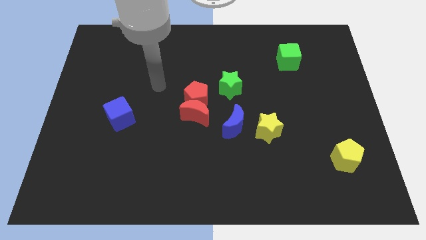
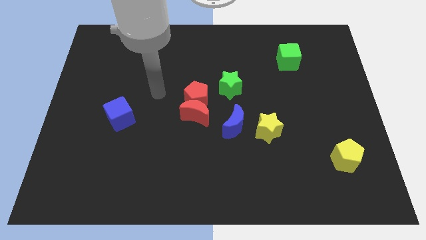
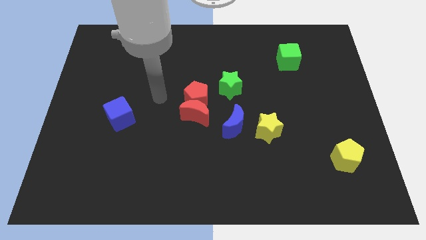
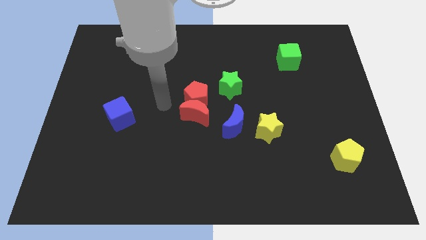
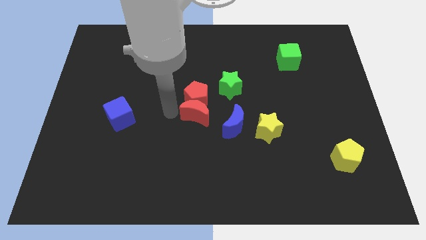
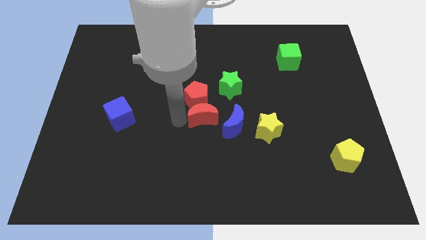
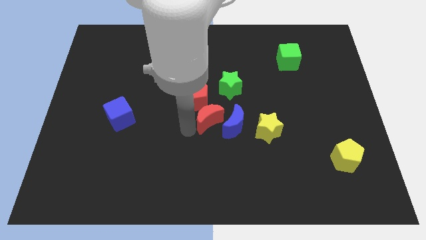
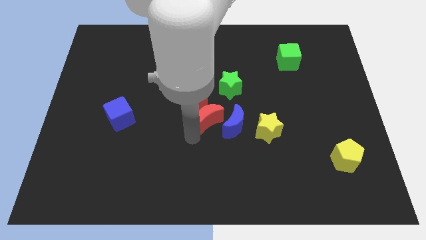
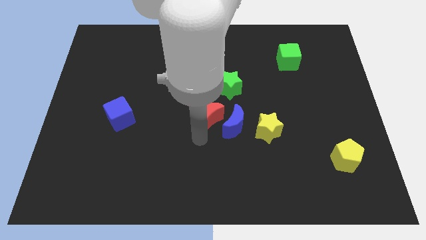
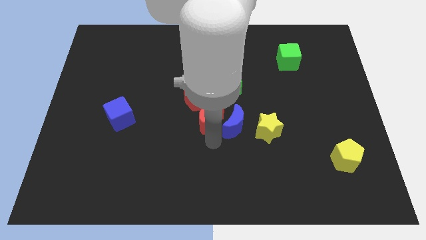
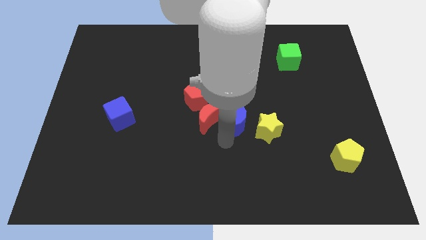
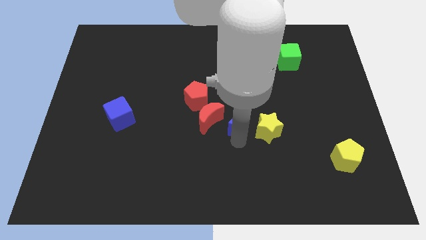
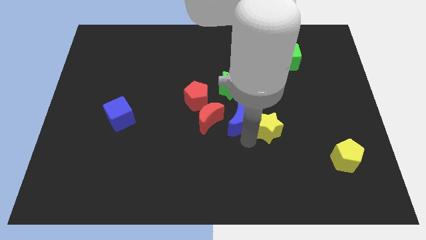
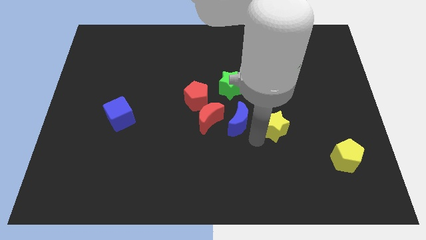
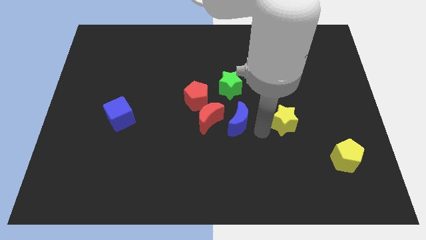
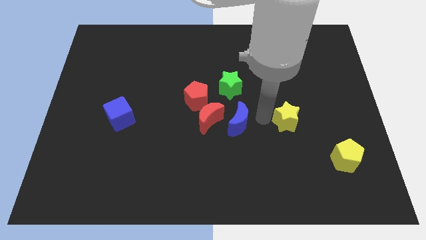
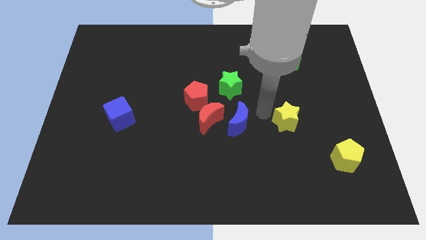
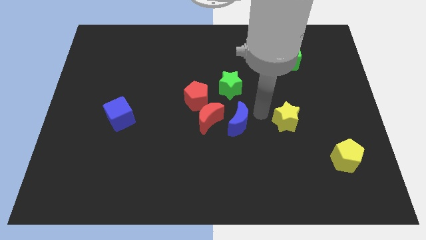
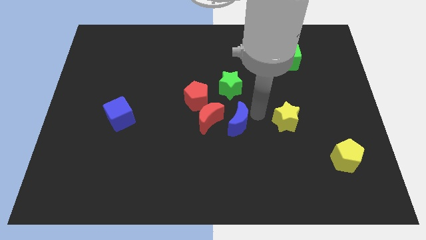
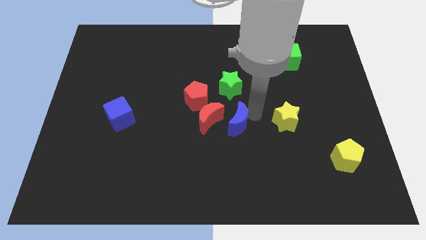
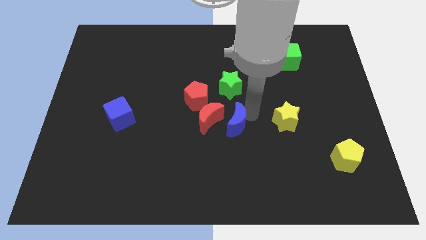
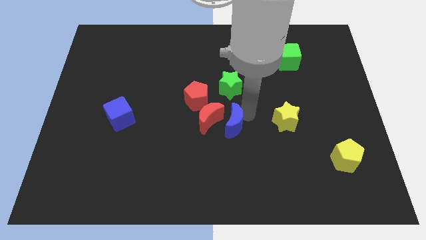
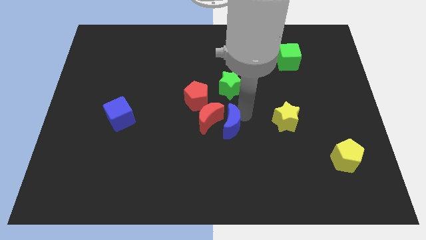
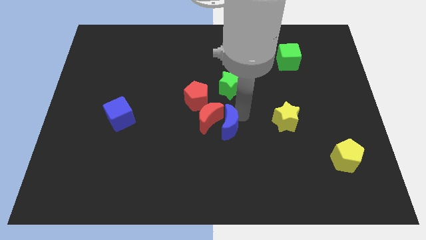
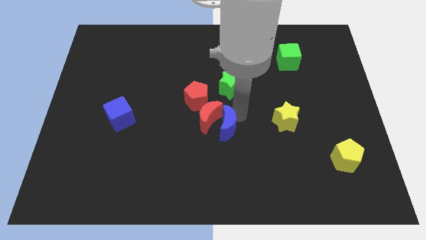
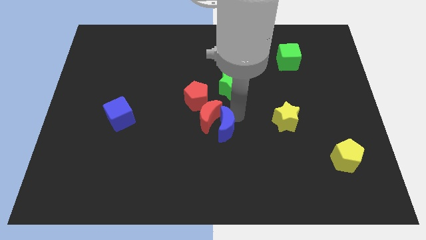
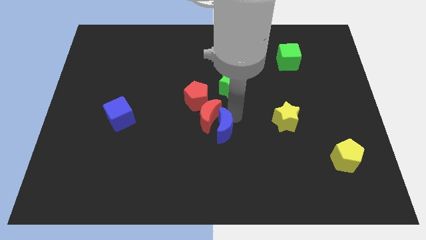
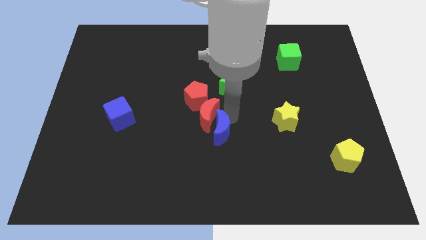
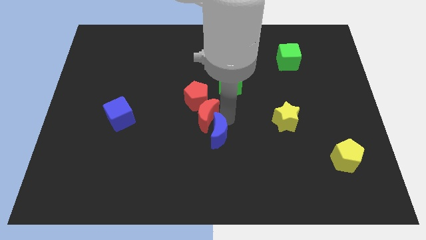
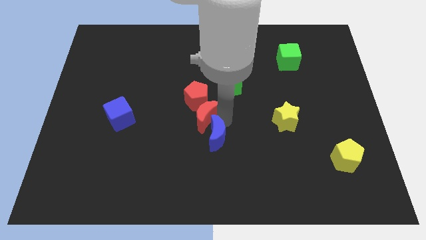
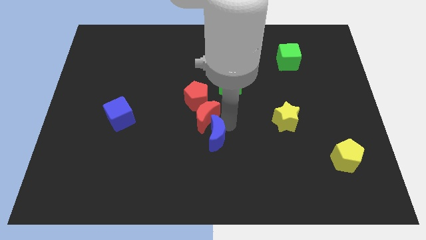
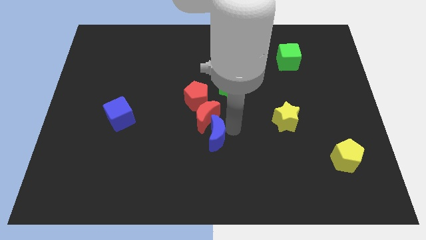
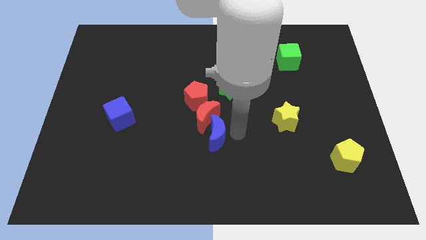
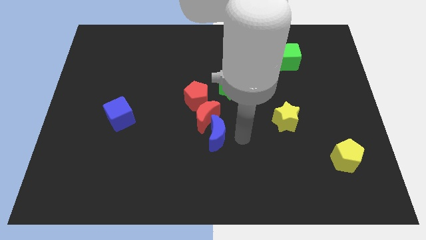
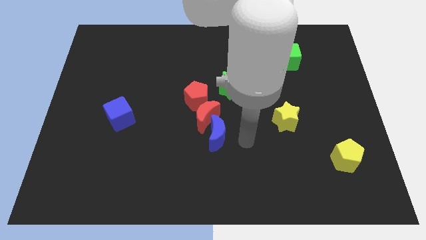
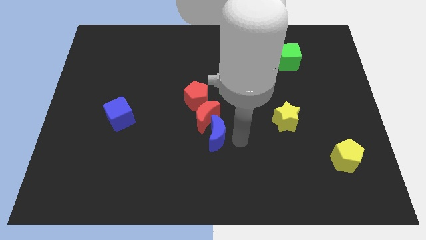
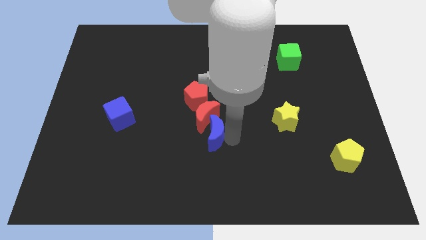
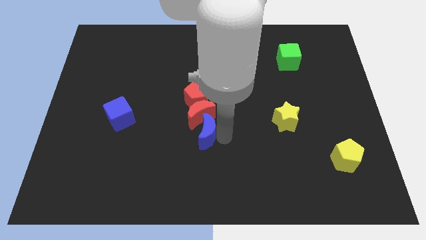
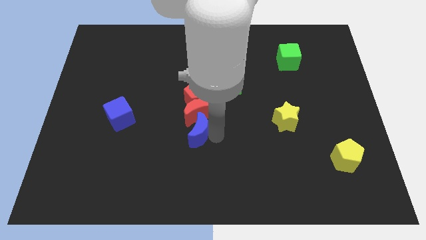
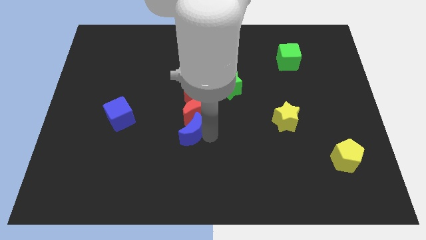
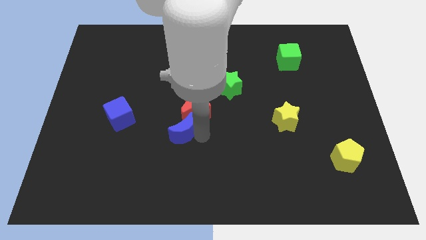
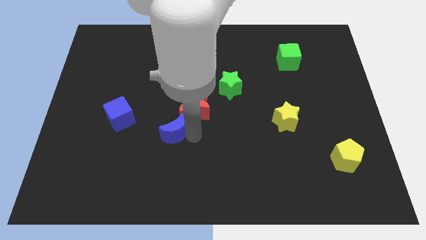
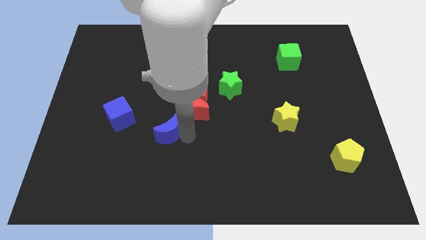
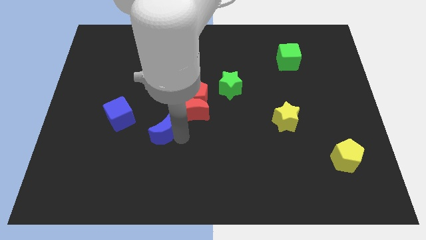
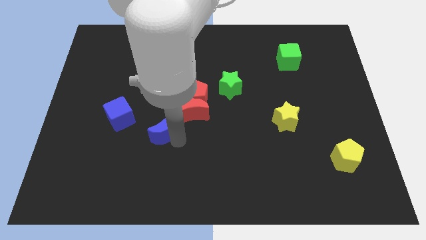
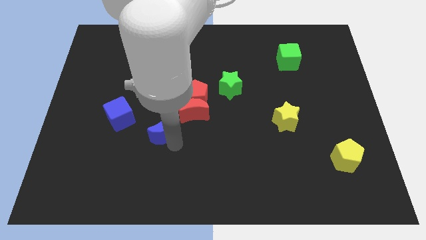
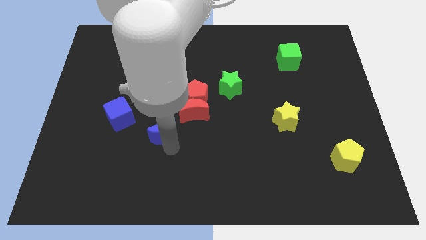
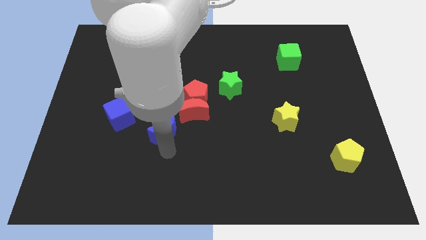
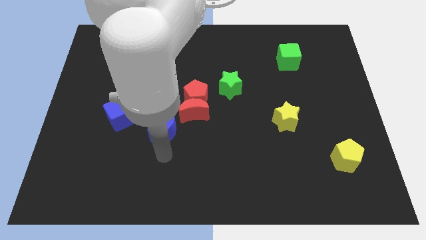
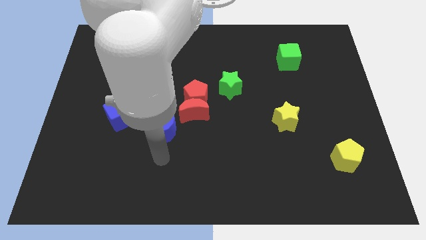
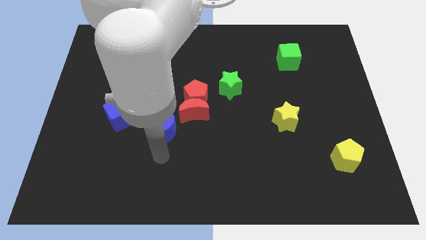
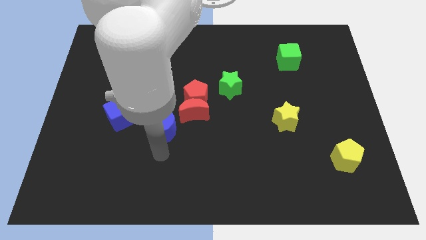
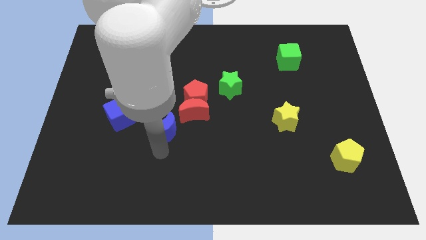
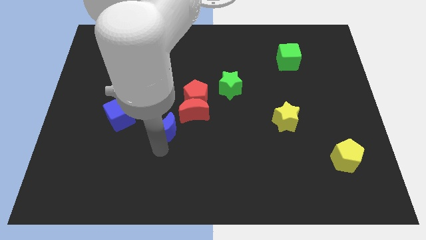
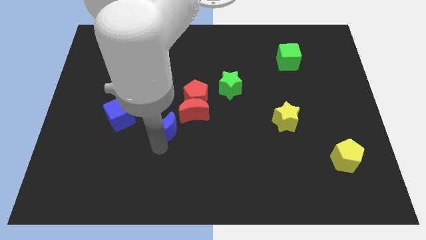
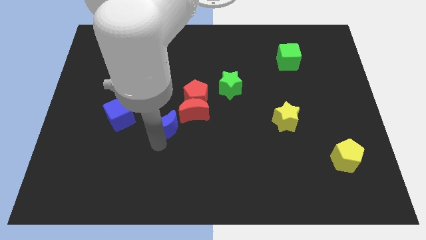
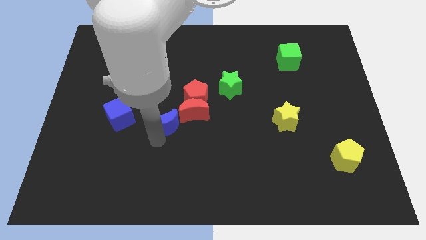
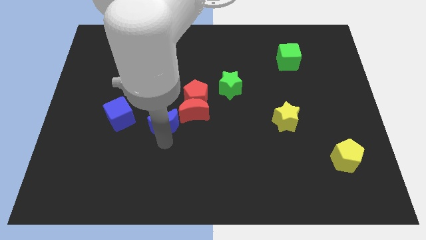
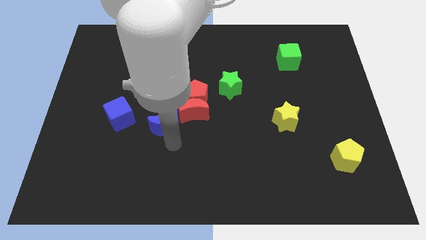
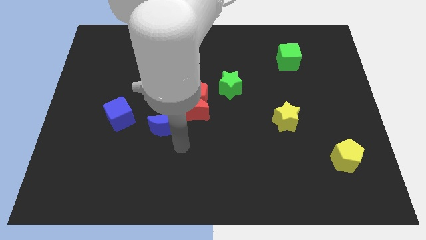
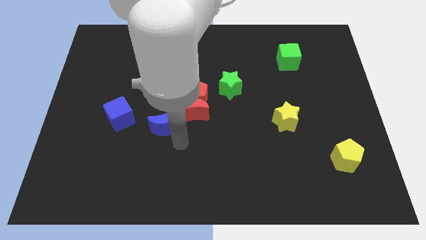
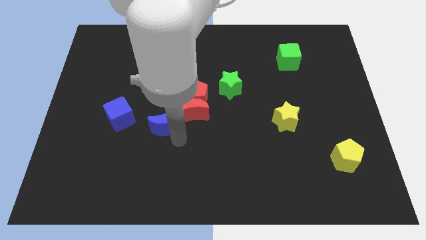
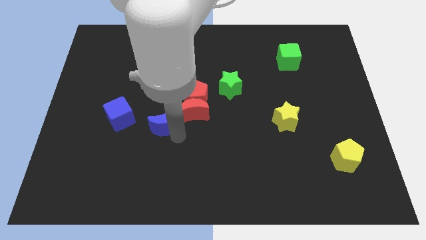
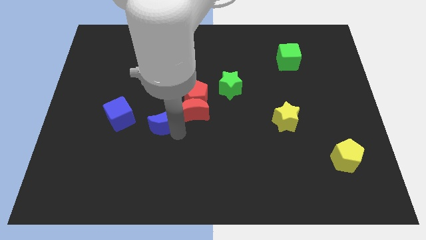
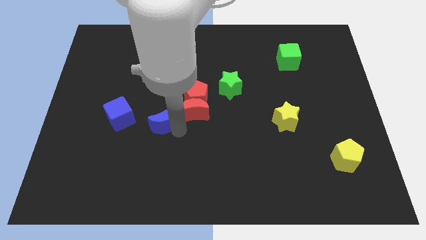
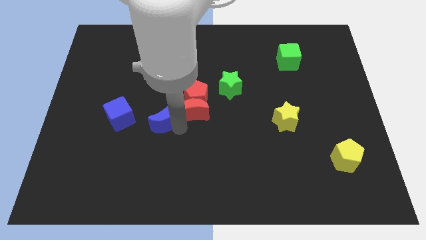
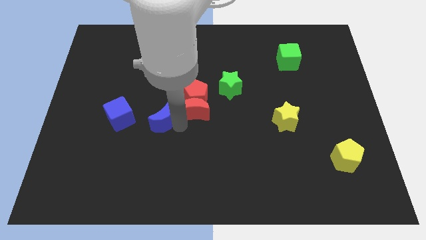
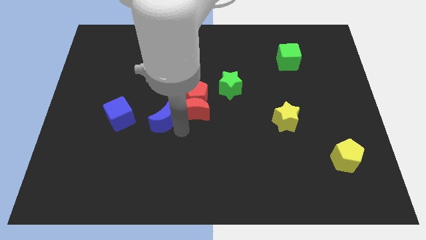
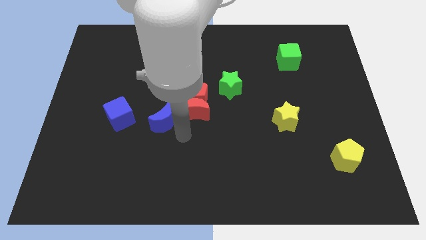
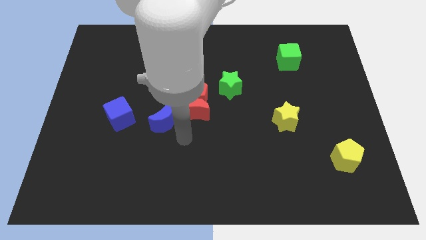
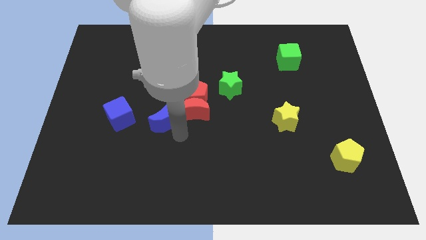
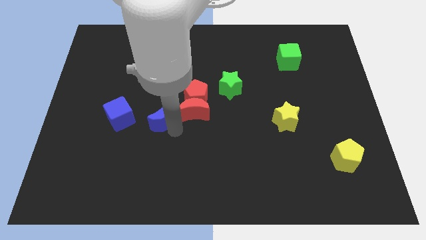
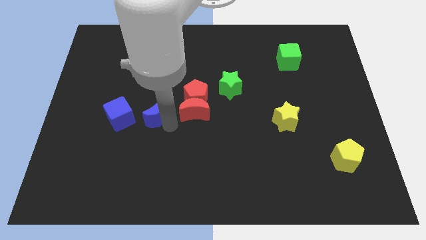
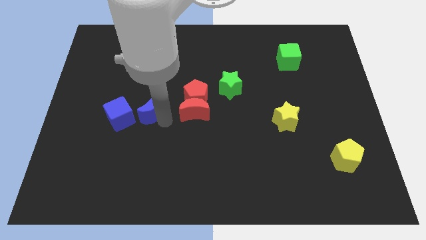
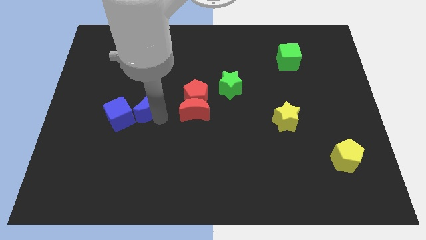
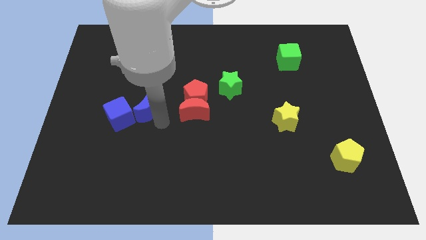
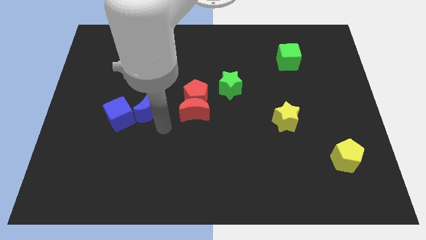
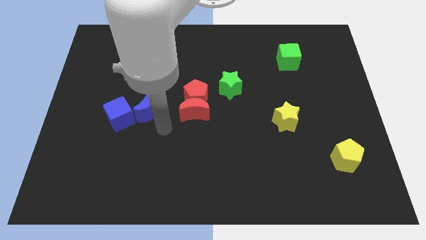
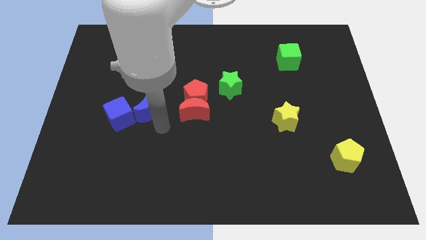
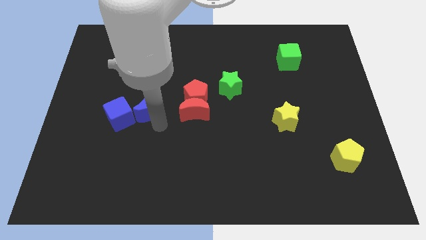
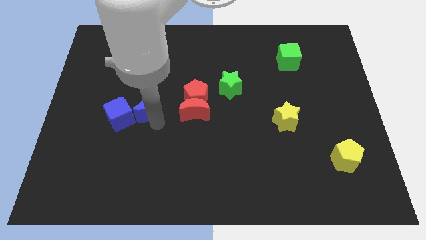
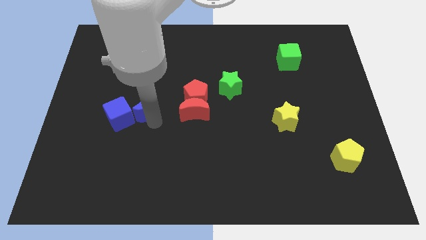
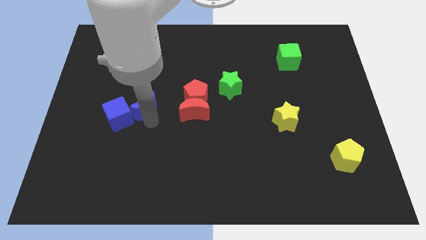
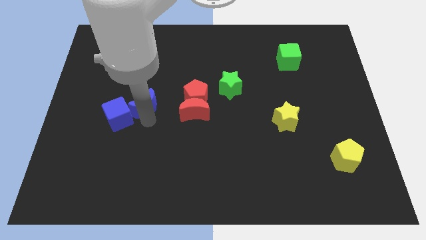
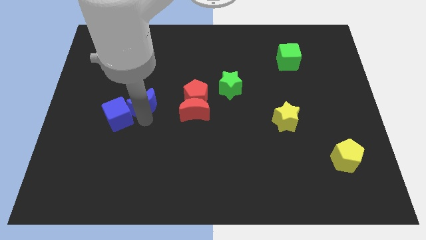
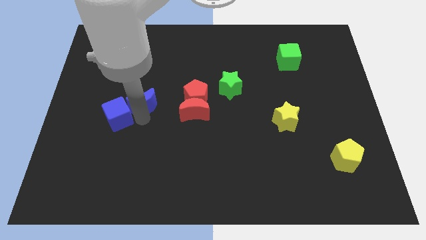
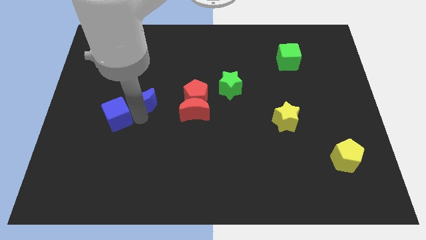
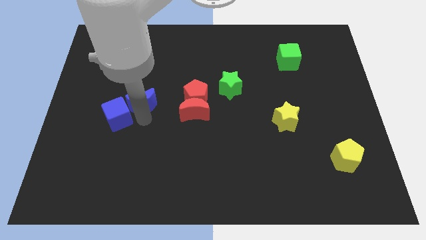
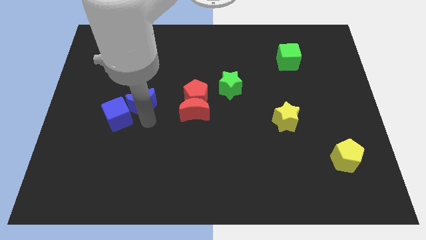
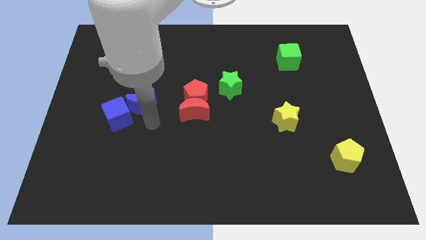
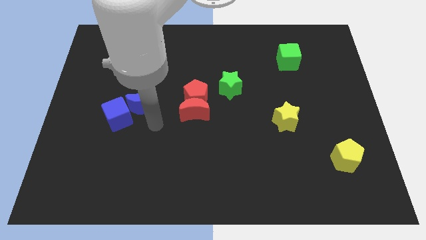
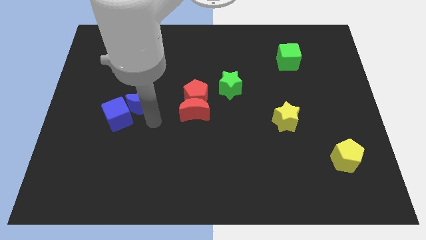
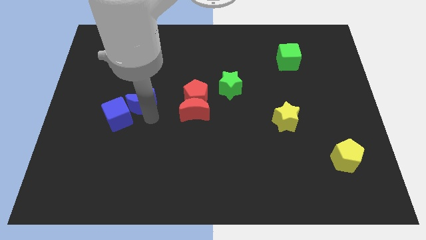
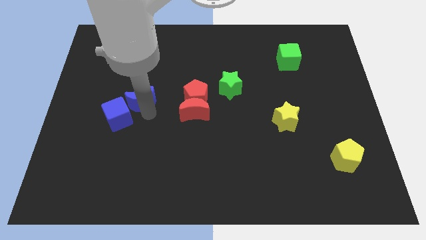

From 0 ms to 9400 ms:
slide the blue moon to the top side of the blue cube
